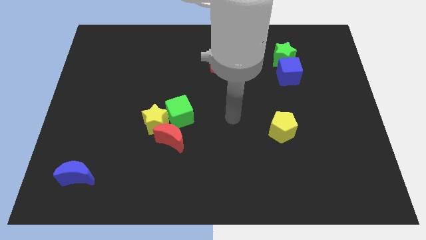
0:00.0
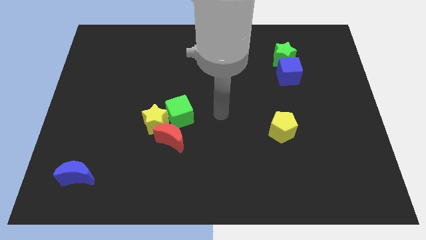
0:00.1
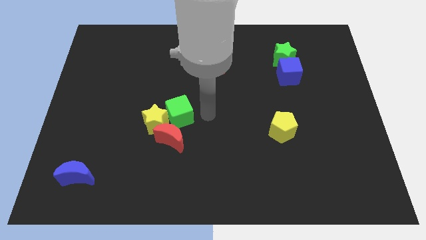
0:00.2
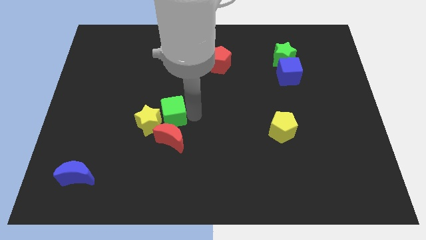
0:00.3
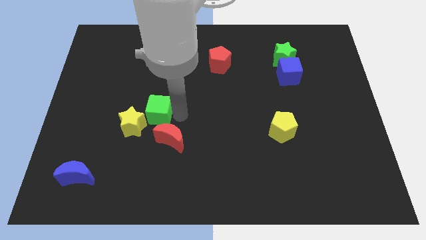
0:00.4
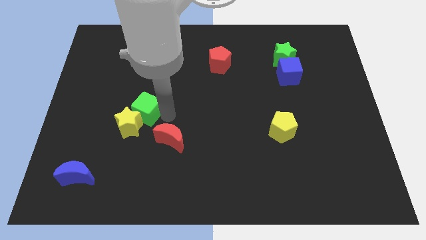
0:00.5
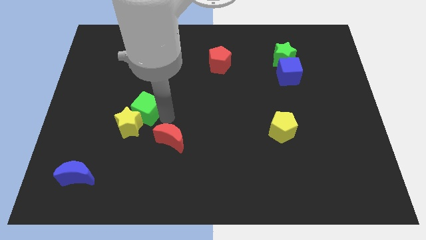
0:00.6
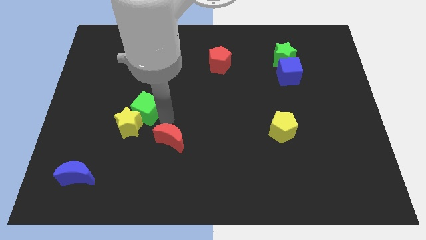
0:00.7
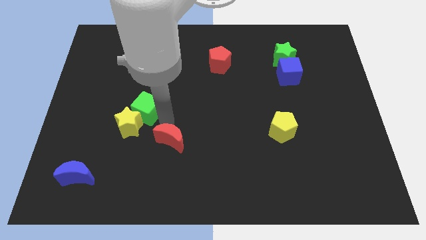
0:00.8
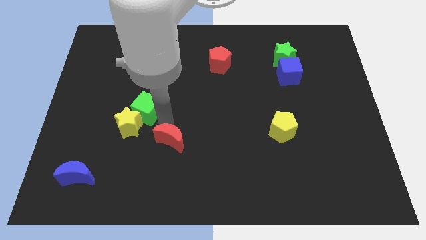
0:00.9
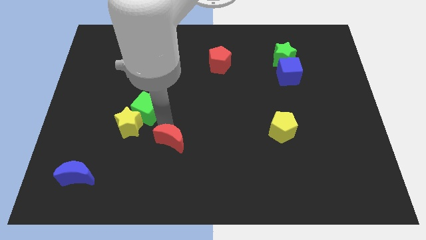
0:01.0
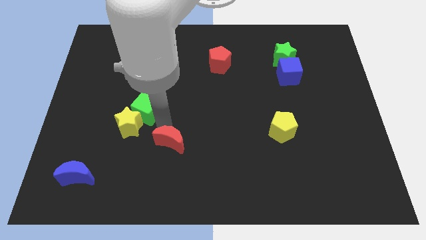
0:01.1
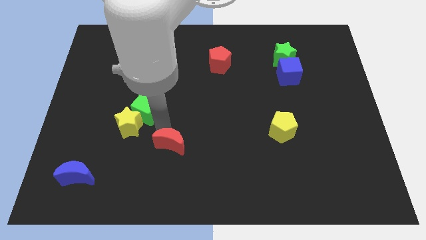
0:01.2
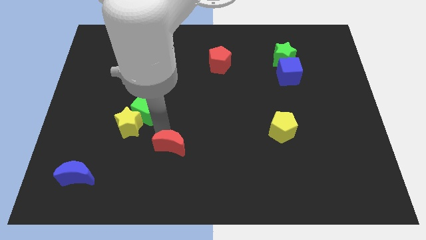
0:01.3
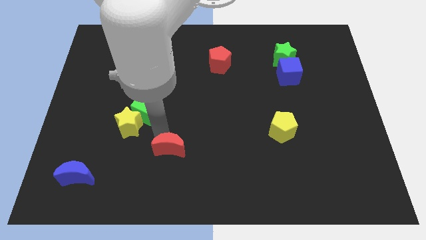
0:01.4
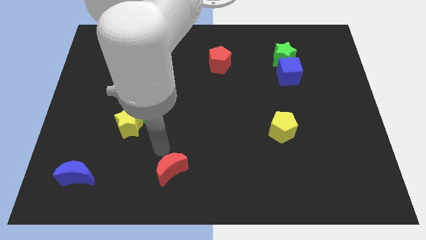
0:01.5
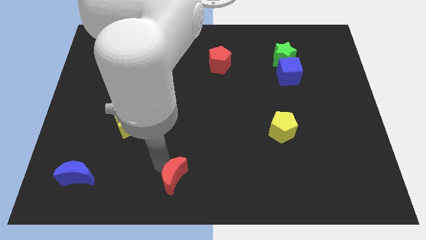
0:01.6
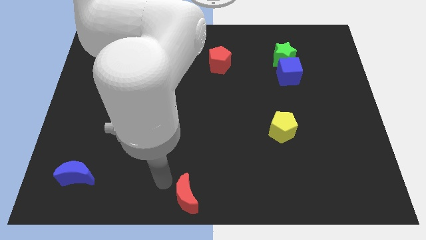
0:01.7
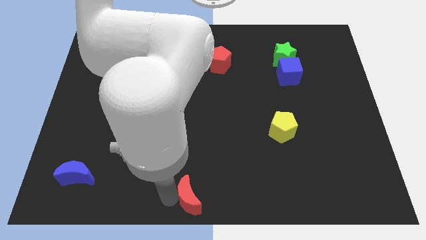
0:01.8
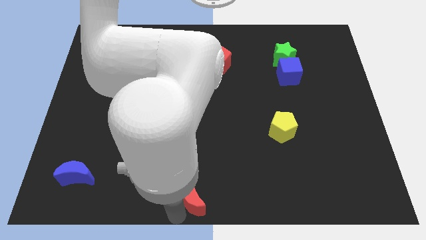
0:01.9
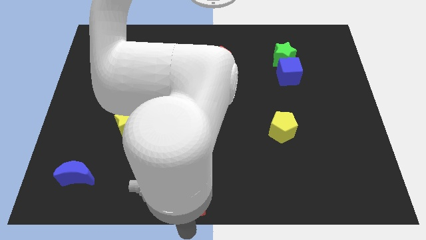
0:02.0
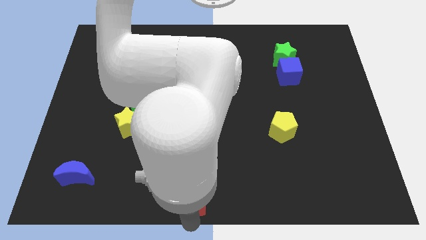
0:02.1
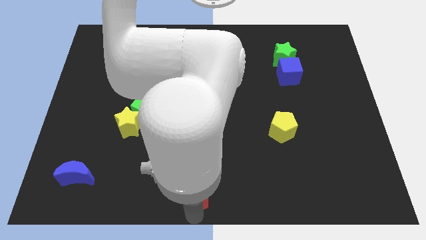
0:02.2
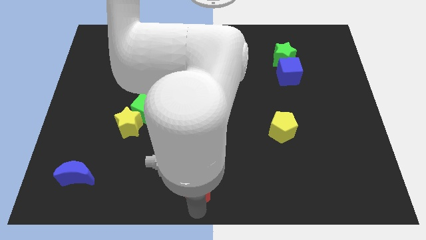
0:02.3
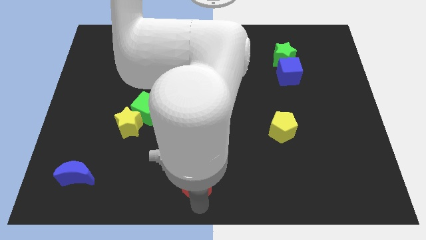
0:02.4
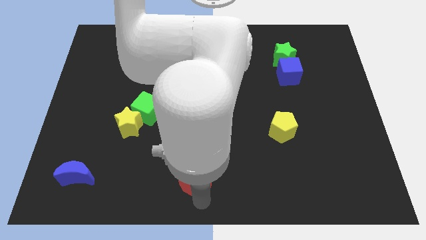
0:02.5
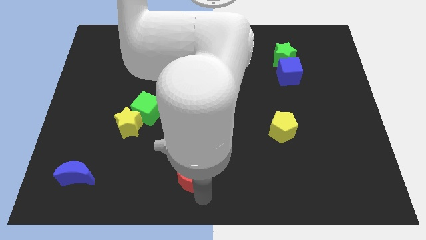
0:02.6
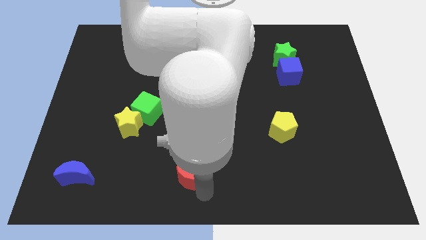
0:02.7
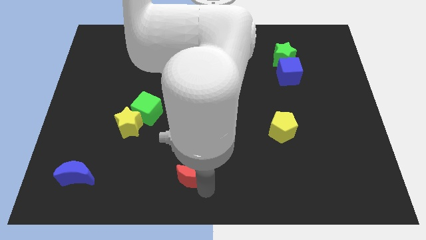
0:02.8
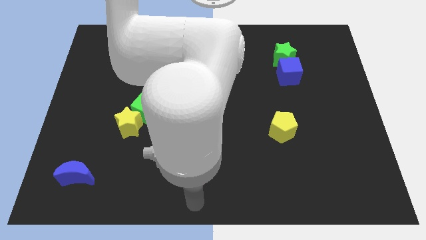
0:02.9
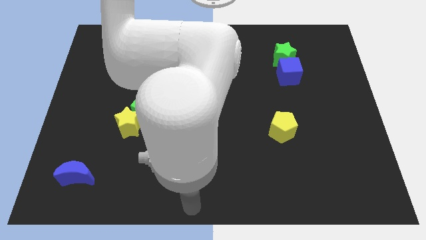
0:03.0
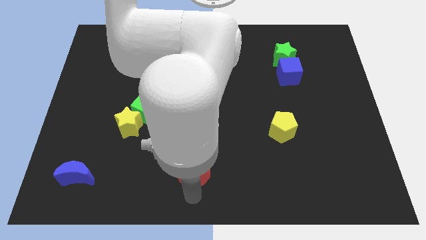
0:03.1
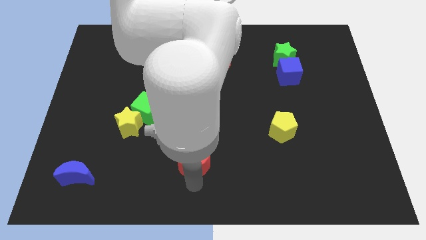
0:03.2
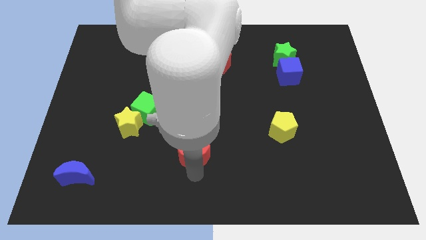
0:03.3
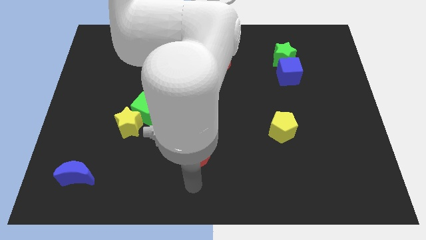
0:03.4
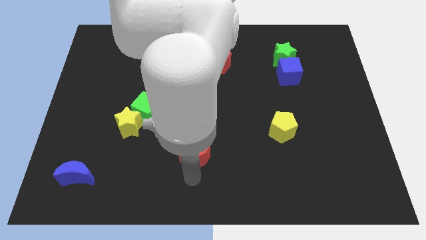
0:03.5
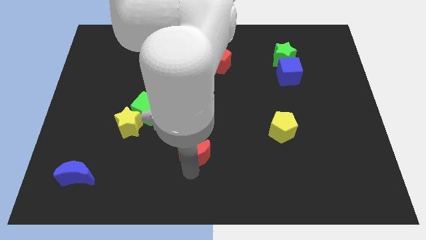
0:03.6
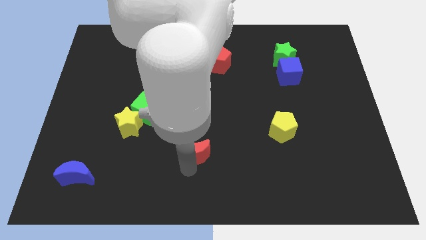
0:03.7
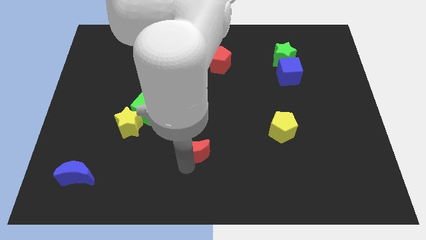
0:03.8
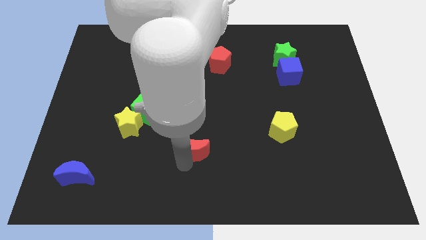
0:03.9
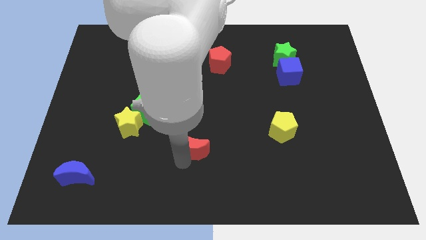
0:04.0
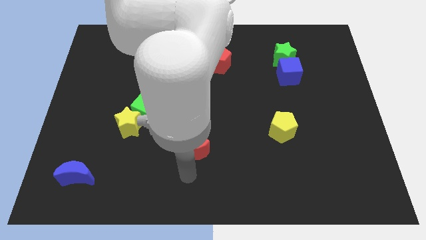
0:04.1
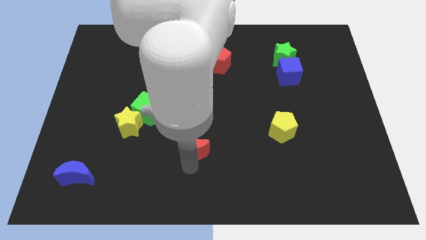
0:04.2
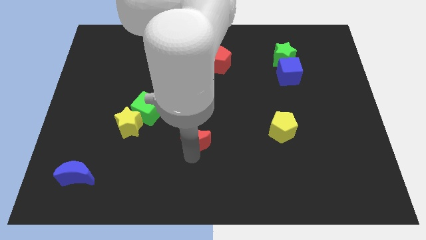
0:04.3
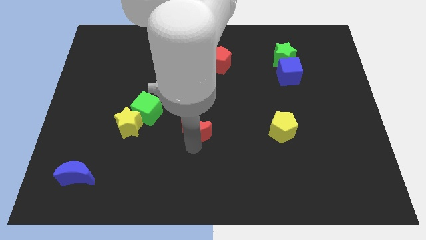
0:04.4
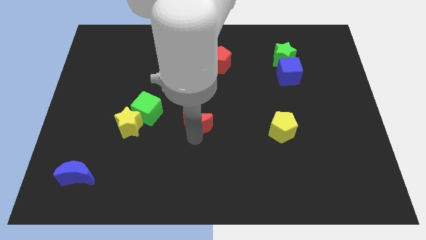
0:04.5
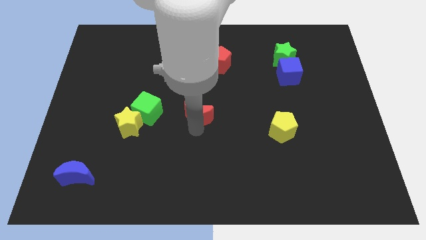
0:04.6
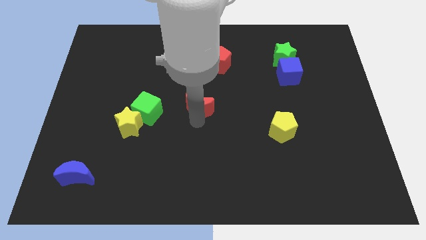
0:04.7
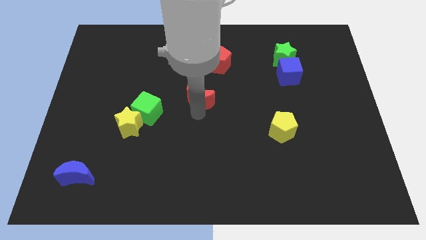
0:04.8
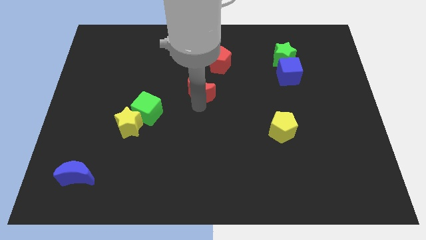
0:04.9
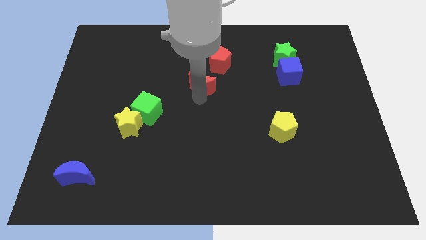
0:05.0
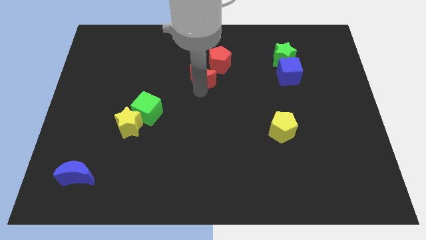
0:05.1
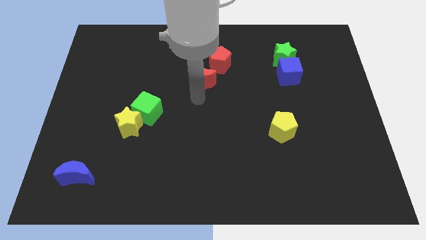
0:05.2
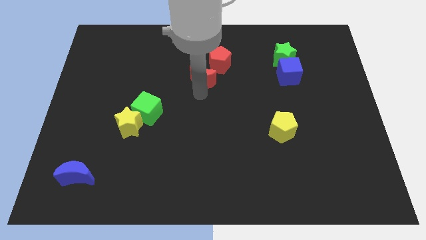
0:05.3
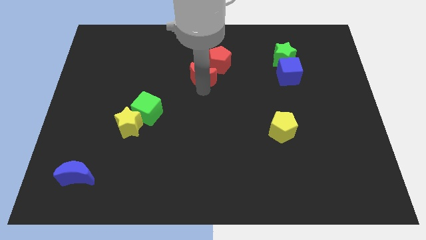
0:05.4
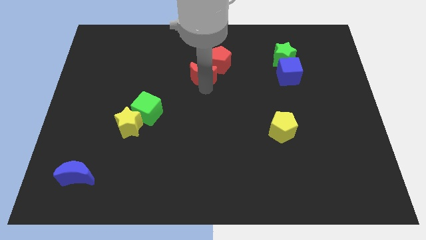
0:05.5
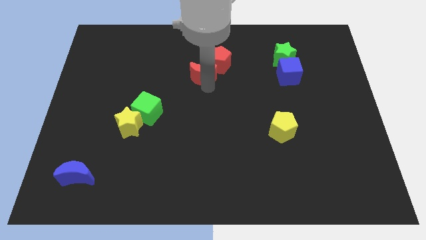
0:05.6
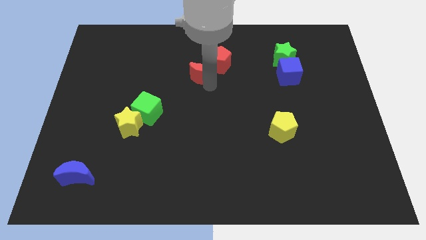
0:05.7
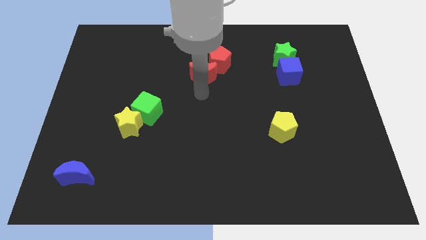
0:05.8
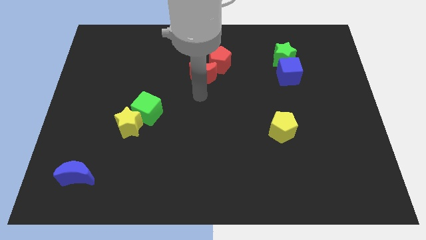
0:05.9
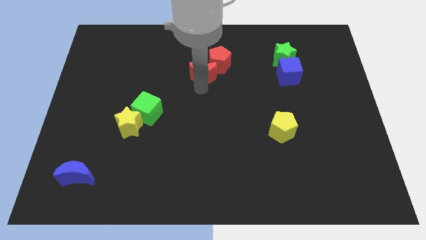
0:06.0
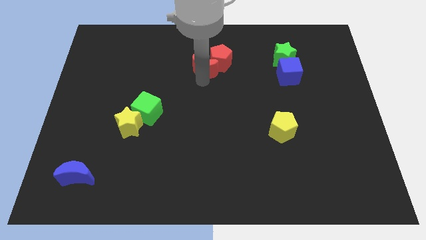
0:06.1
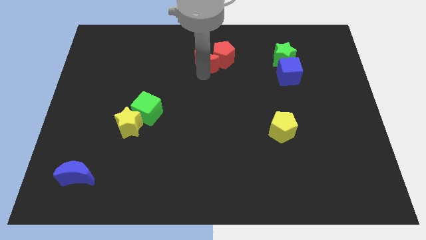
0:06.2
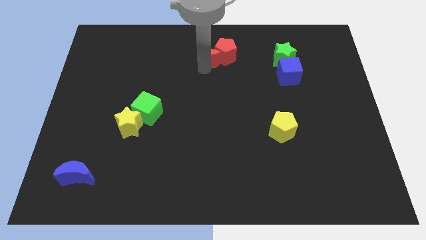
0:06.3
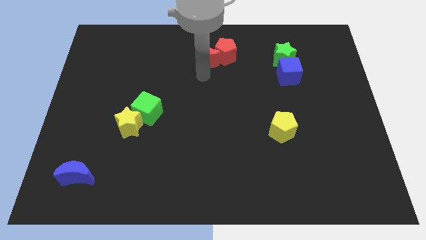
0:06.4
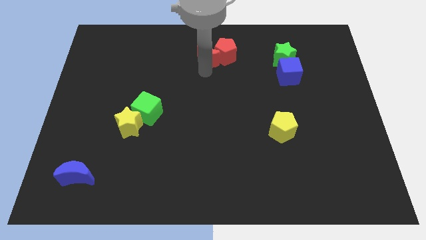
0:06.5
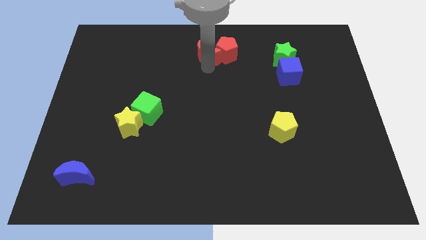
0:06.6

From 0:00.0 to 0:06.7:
move the red moon to the towards your base
